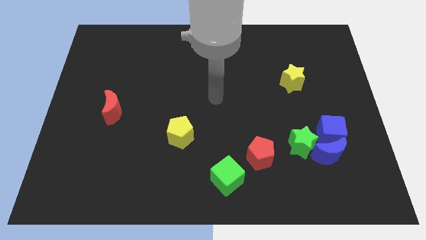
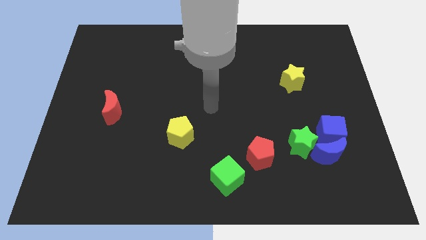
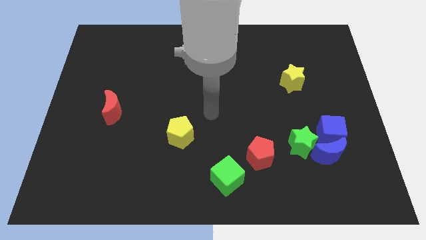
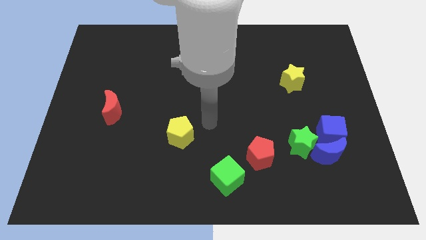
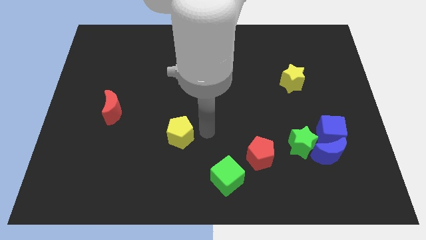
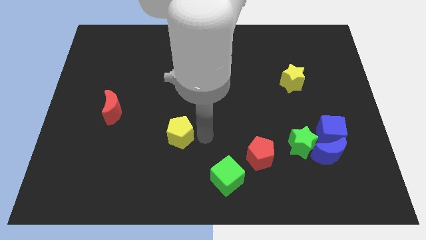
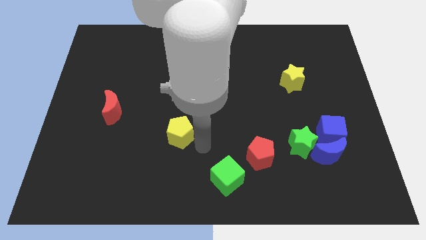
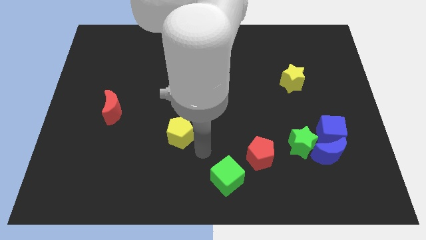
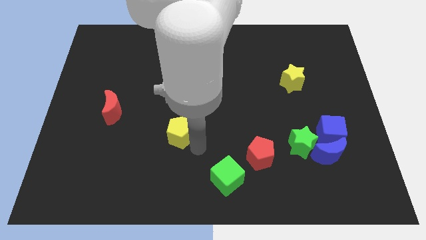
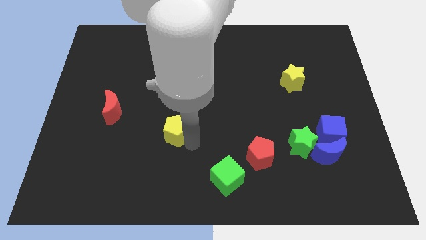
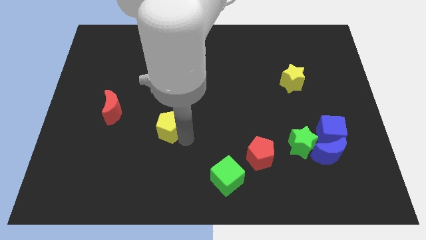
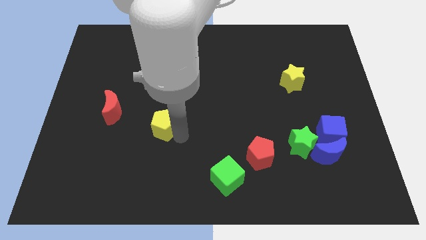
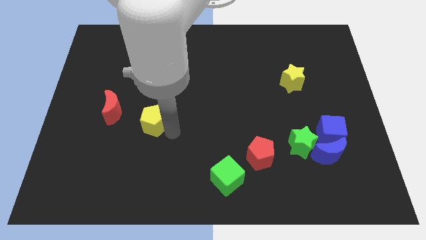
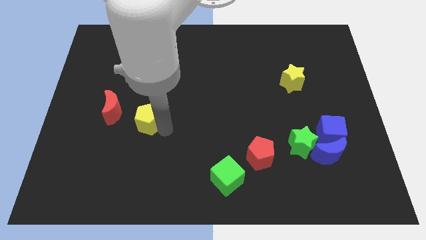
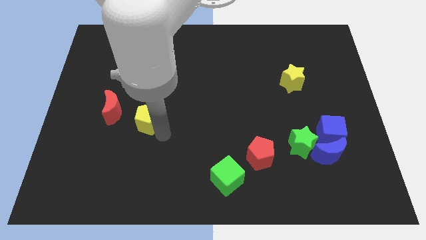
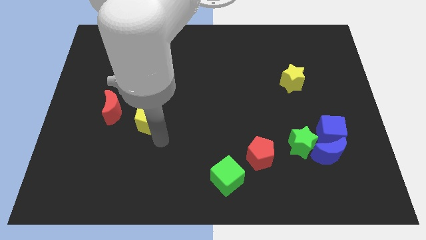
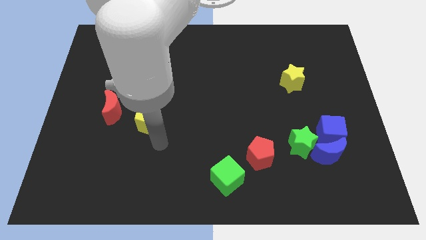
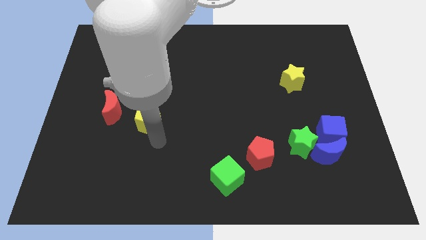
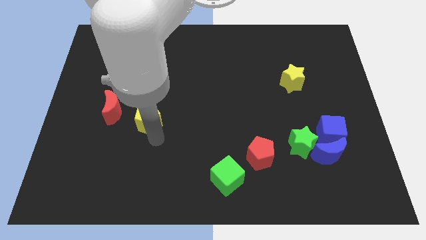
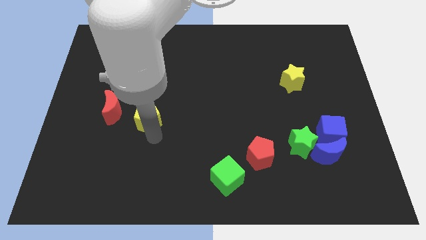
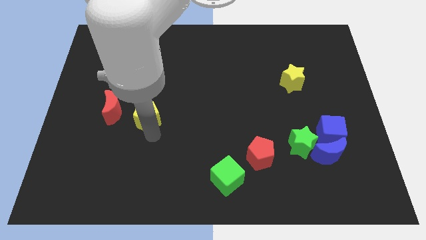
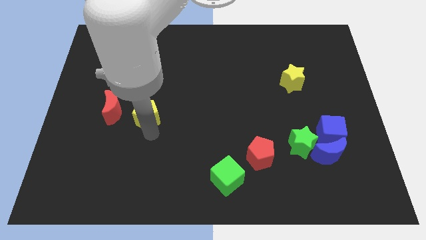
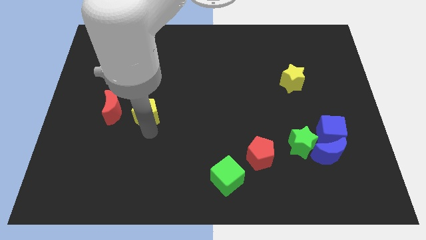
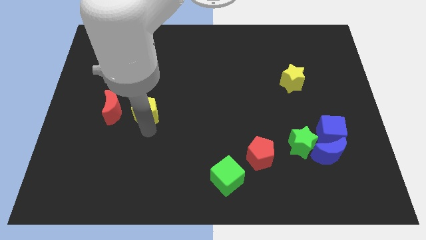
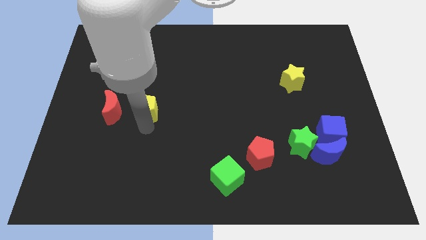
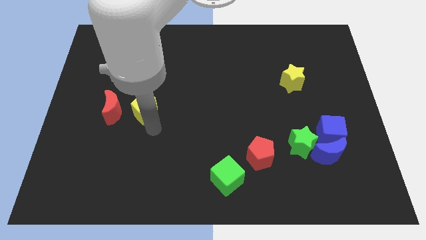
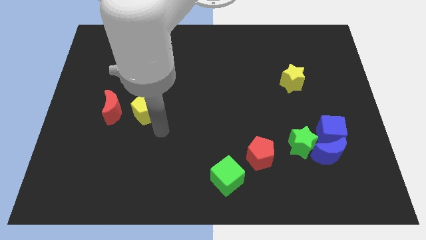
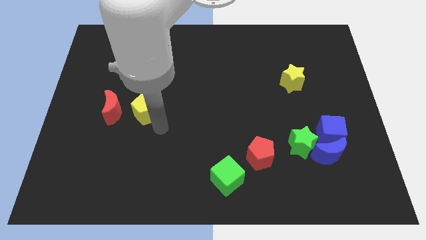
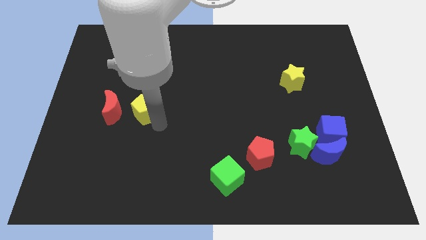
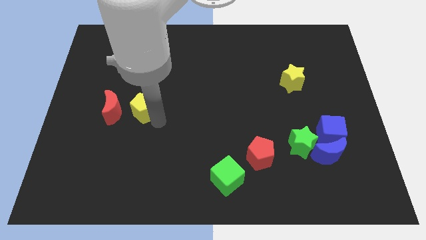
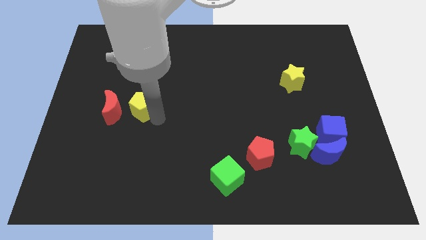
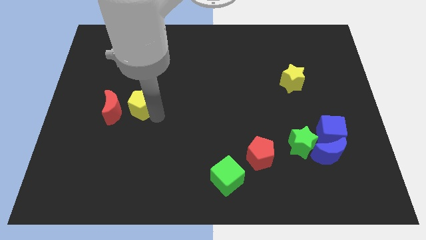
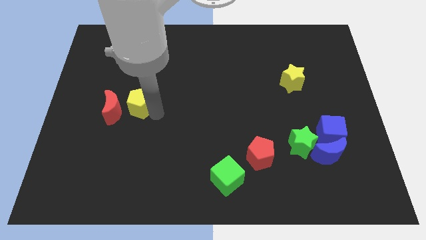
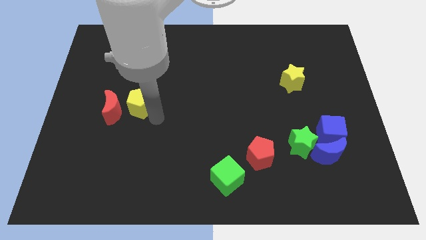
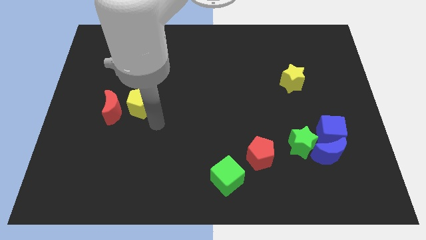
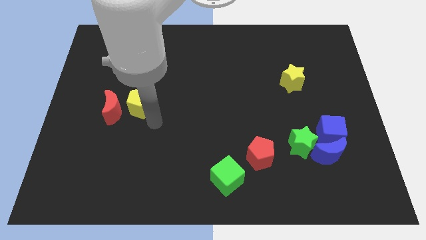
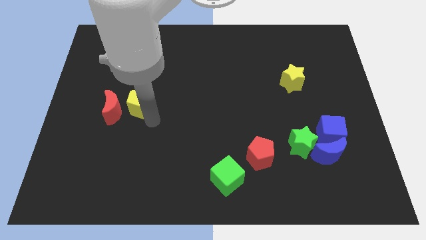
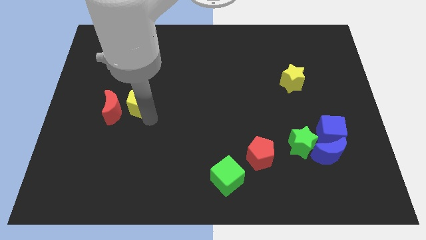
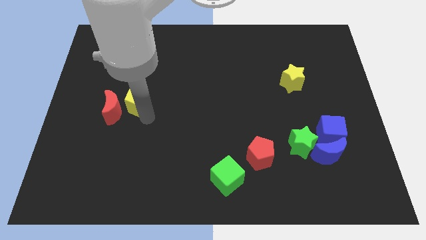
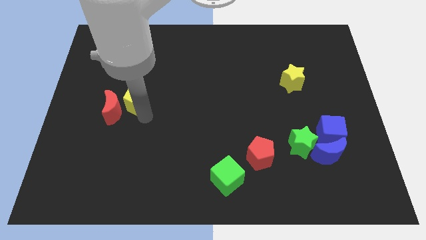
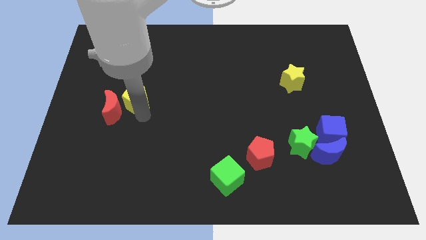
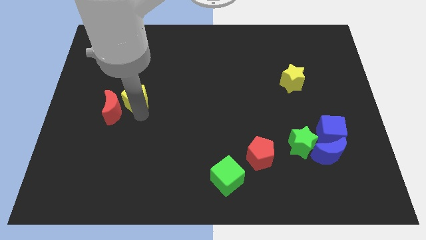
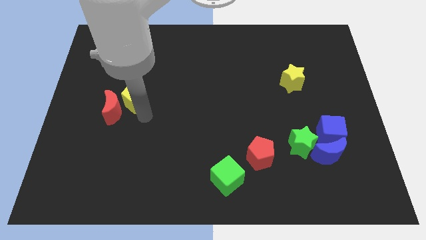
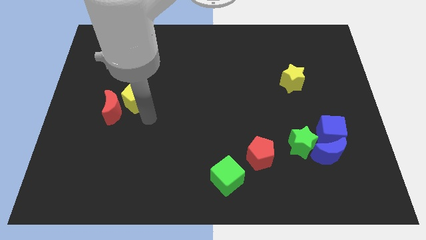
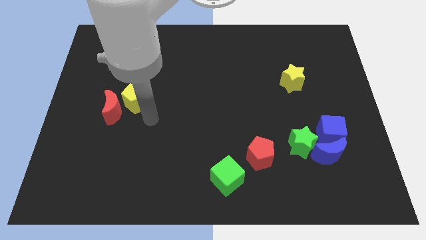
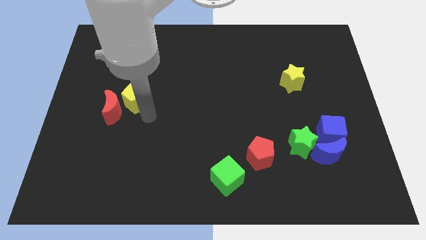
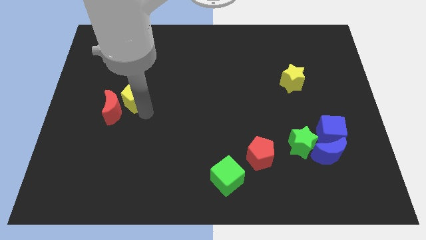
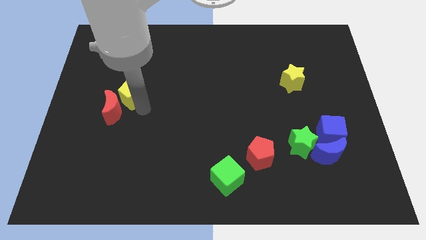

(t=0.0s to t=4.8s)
push the yellow pentagon to the top side of the red moon

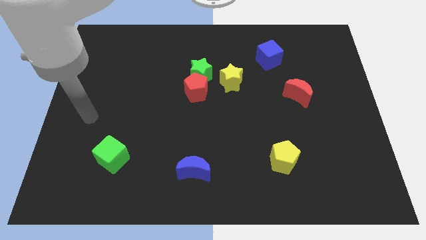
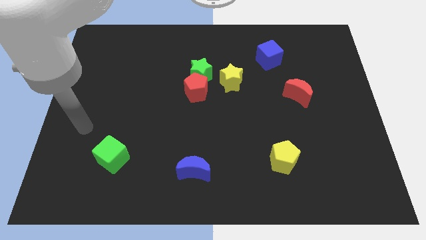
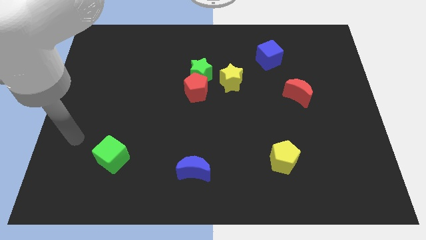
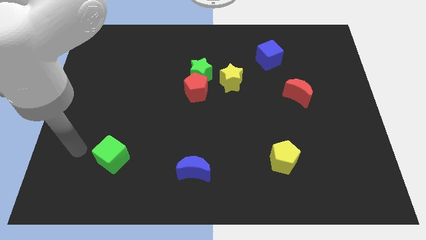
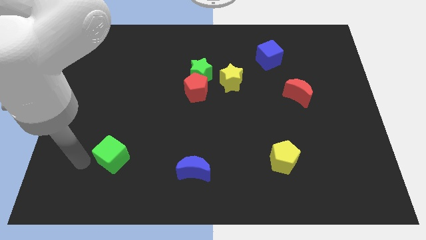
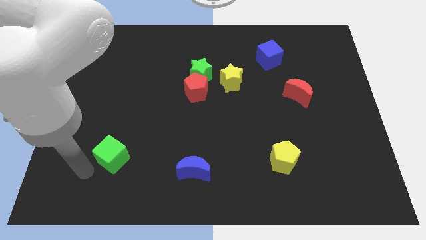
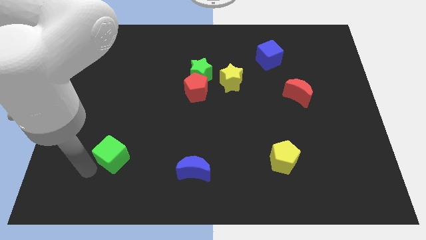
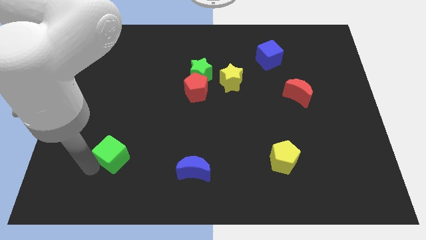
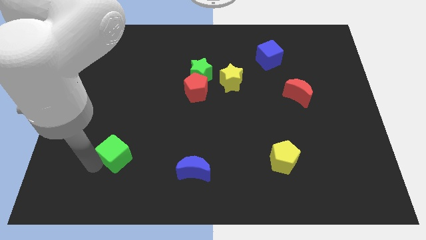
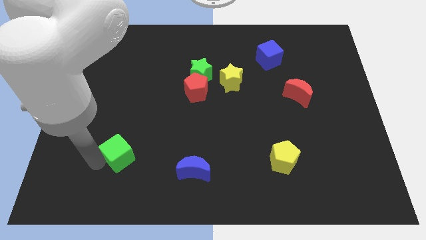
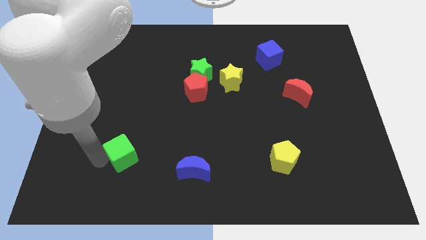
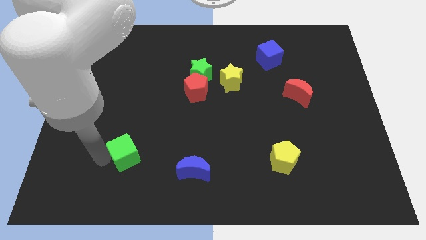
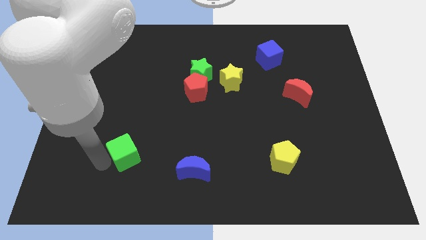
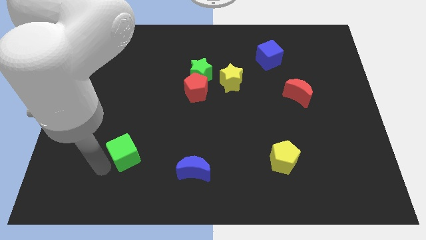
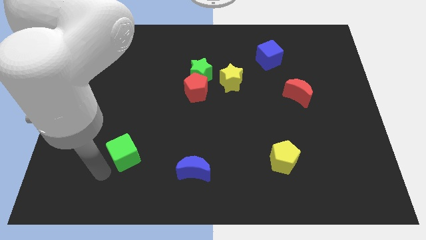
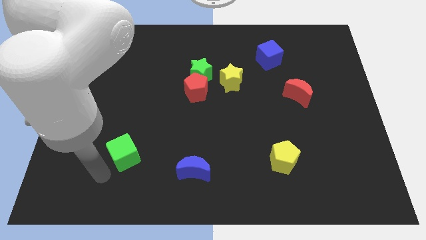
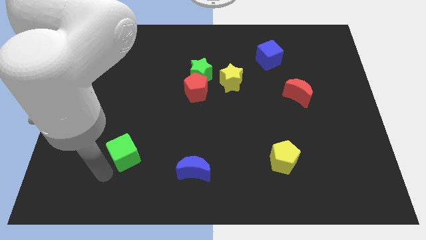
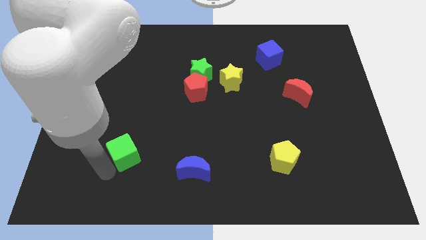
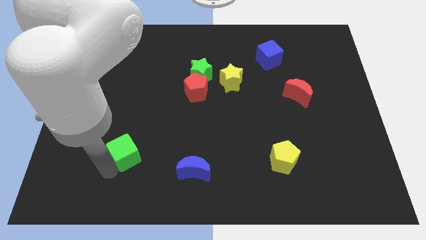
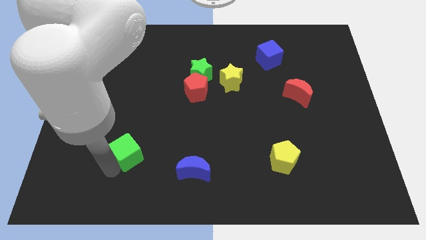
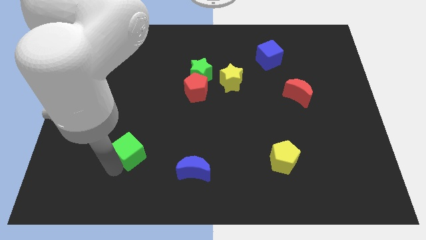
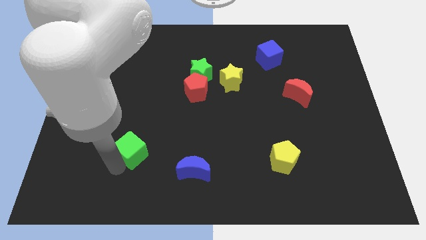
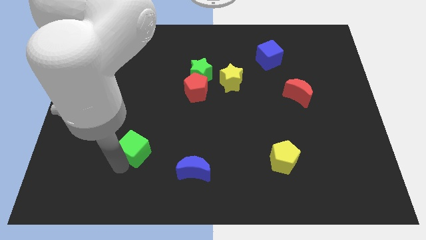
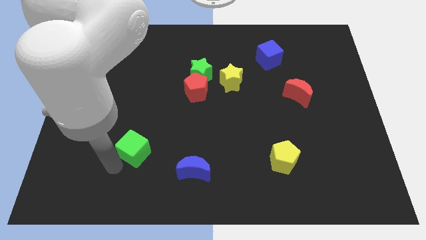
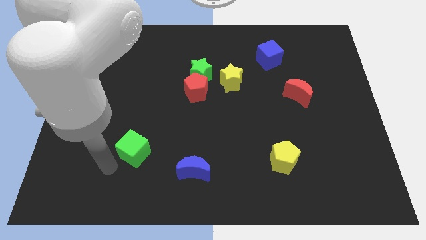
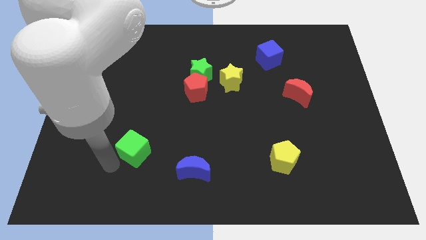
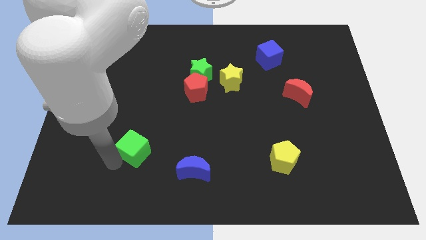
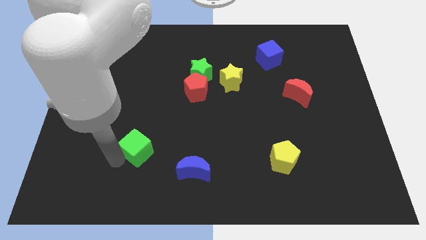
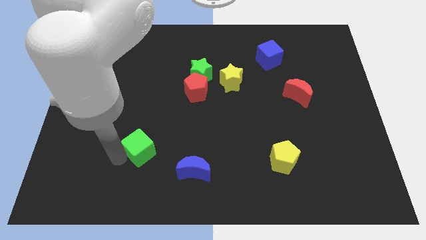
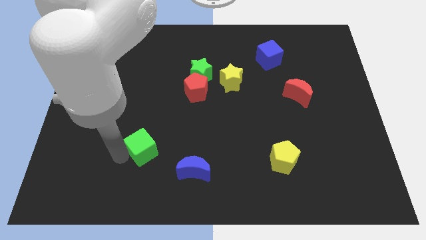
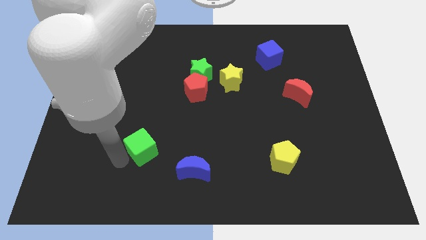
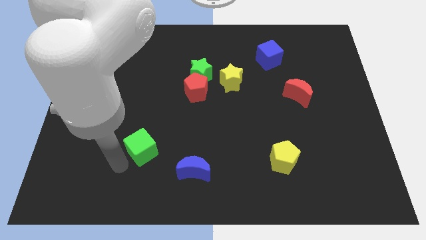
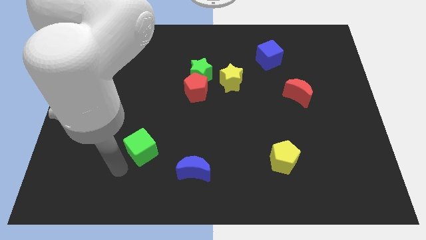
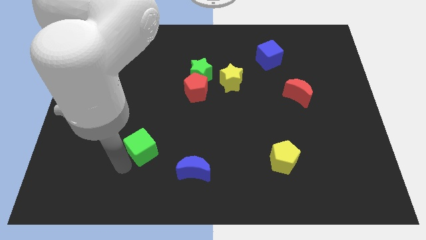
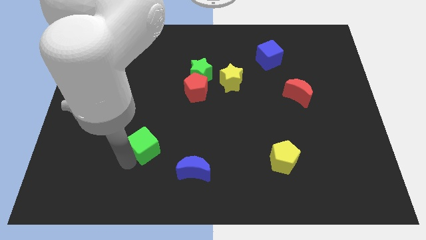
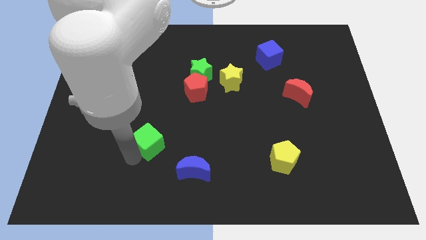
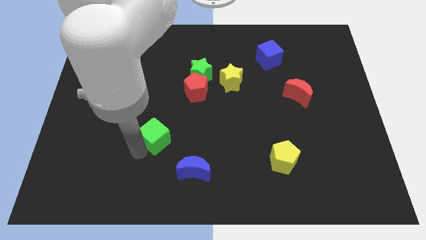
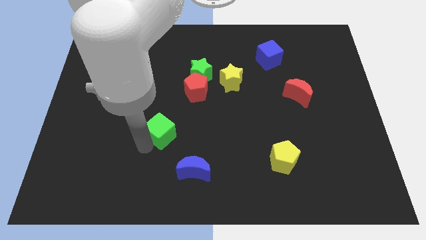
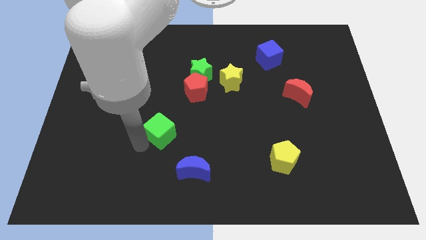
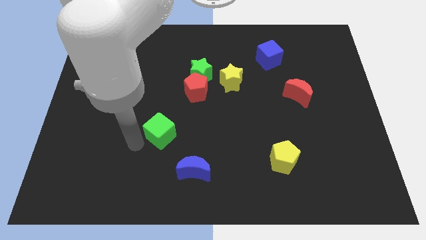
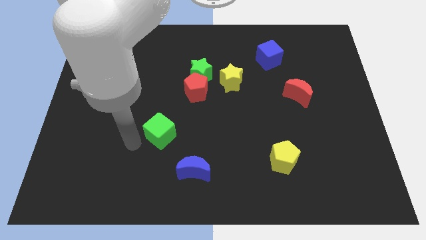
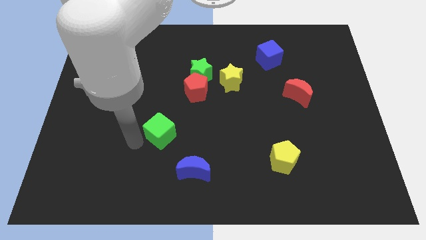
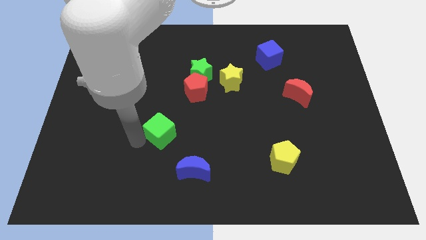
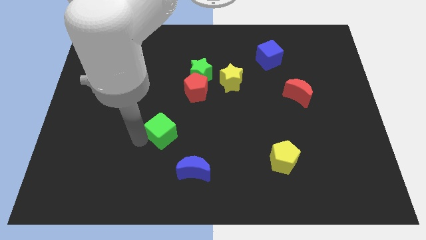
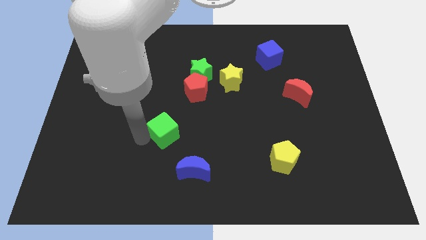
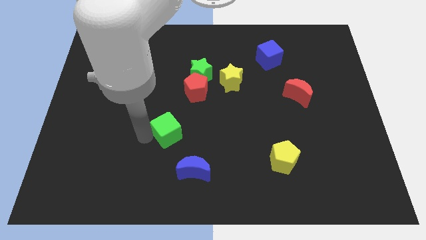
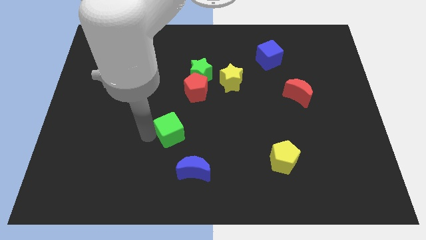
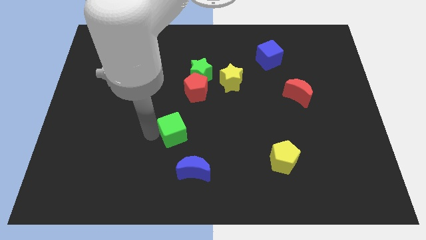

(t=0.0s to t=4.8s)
push the green cube to the bottom of the red pentagon
